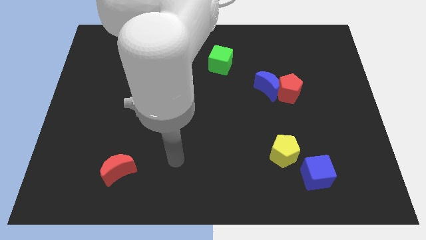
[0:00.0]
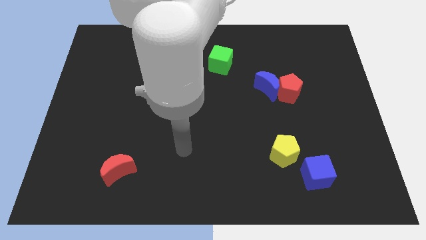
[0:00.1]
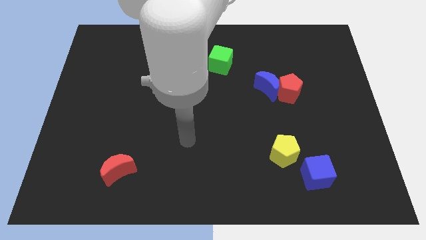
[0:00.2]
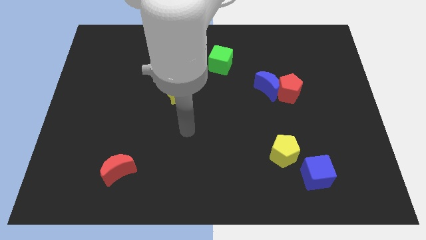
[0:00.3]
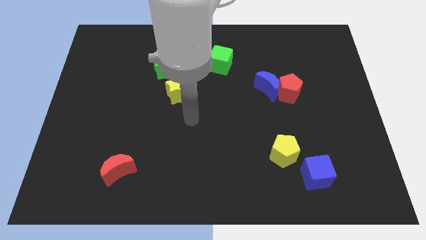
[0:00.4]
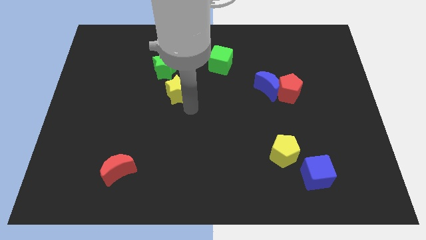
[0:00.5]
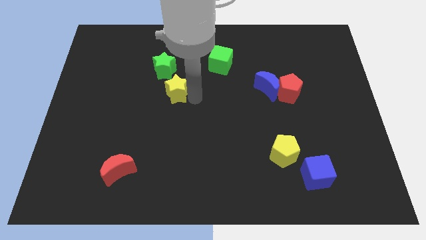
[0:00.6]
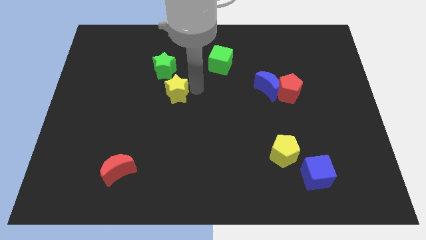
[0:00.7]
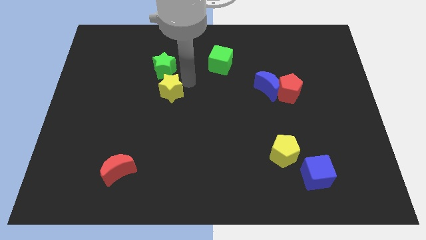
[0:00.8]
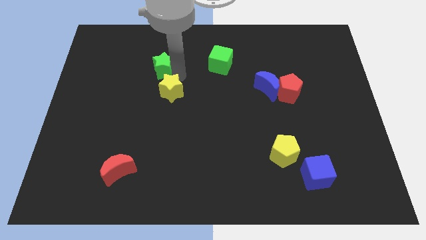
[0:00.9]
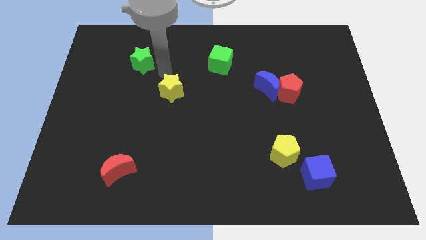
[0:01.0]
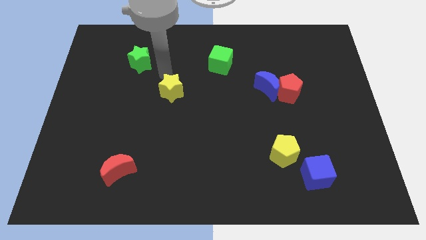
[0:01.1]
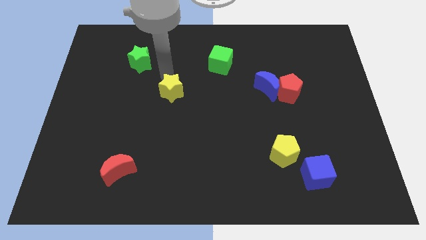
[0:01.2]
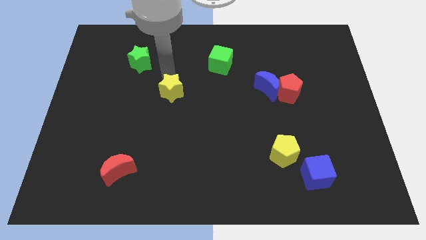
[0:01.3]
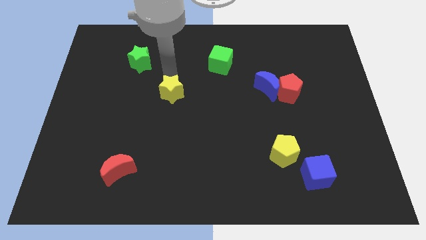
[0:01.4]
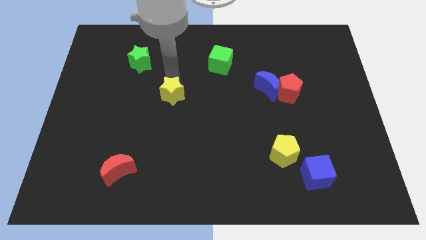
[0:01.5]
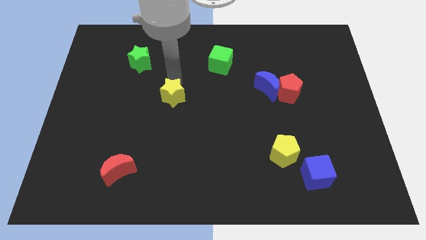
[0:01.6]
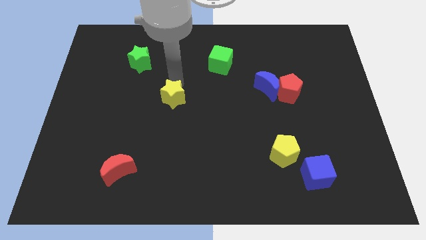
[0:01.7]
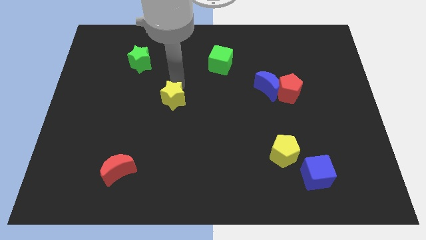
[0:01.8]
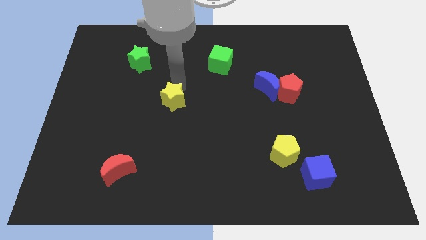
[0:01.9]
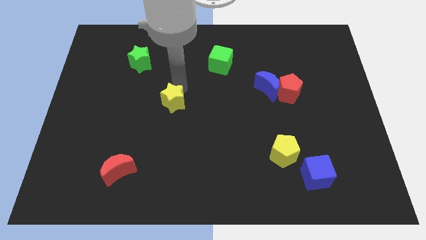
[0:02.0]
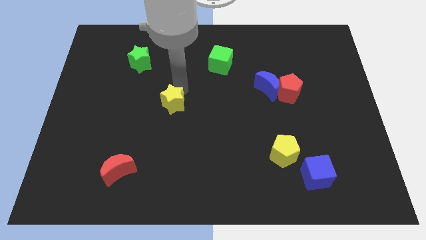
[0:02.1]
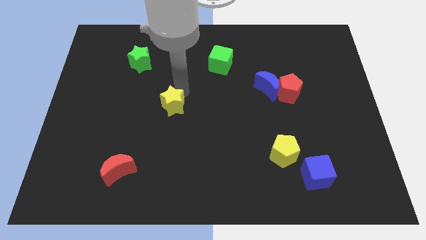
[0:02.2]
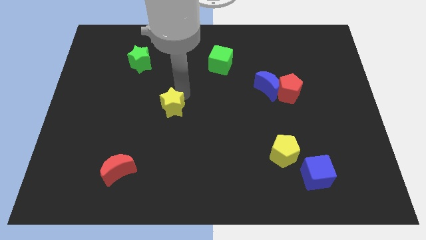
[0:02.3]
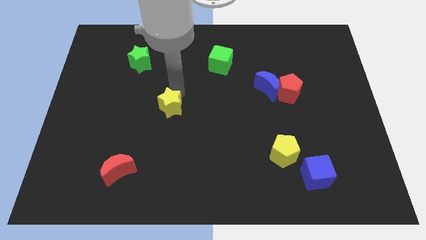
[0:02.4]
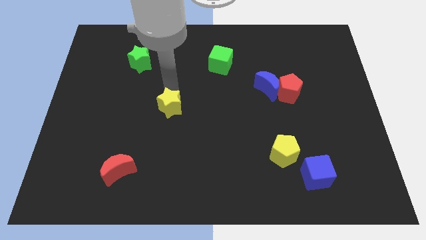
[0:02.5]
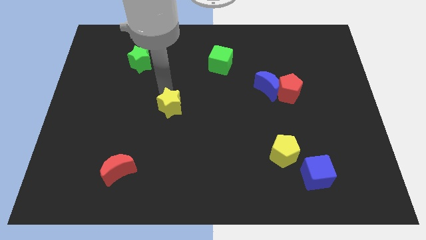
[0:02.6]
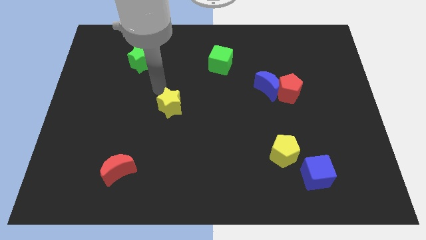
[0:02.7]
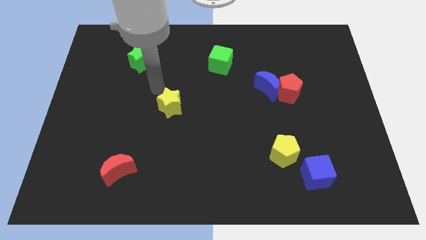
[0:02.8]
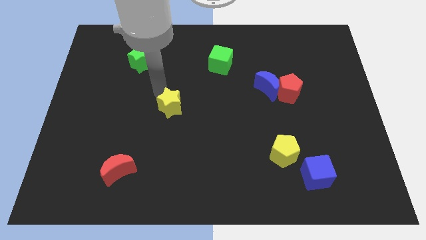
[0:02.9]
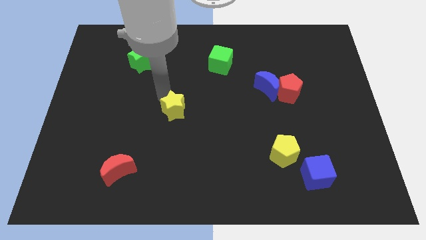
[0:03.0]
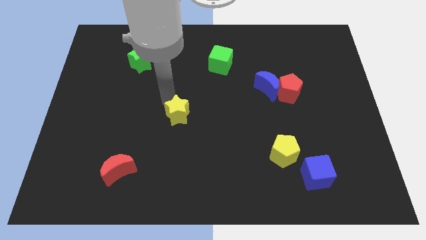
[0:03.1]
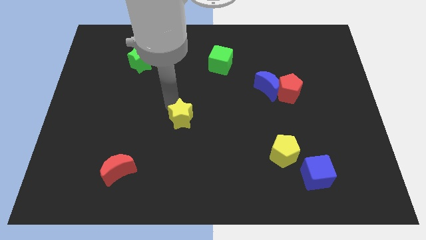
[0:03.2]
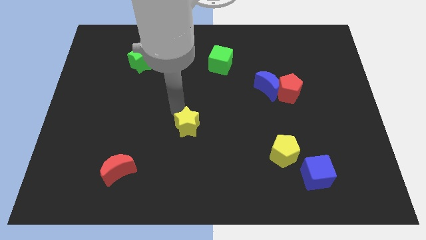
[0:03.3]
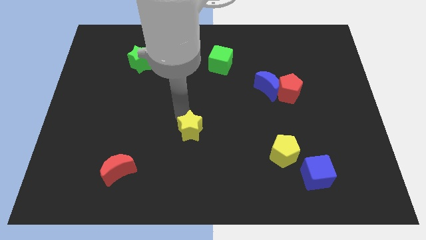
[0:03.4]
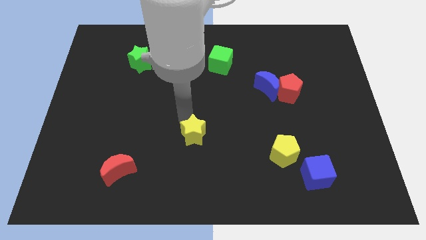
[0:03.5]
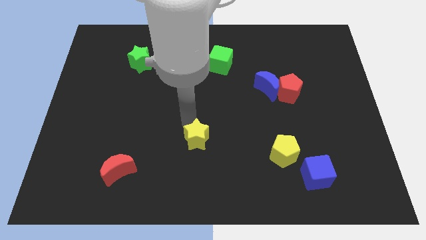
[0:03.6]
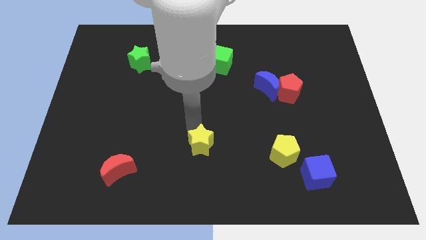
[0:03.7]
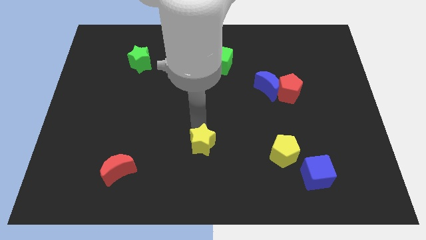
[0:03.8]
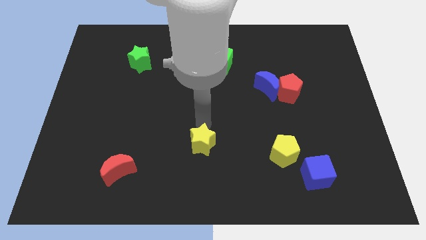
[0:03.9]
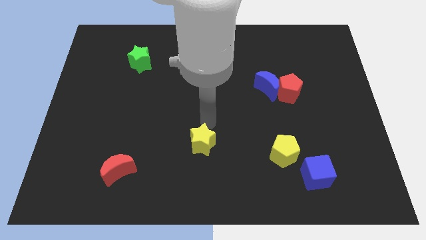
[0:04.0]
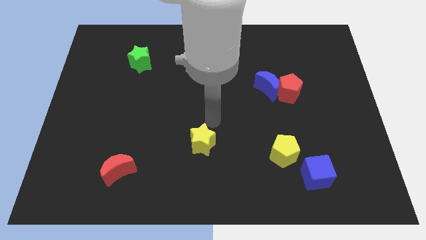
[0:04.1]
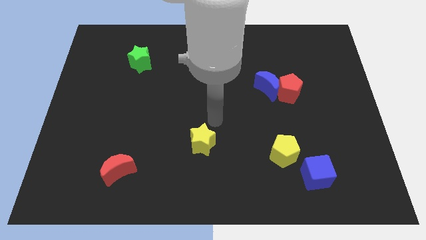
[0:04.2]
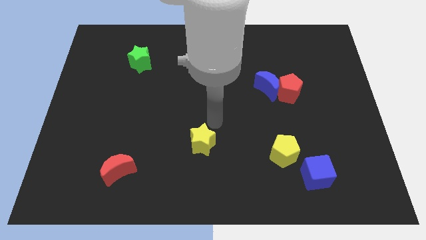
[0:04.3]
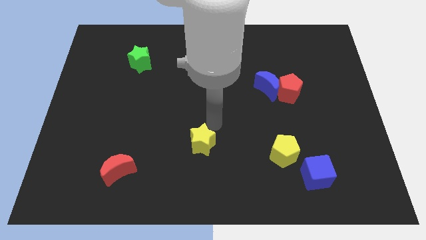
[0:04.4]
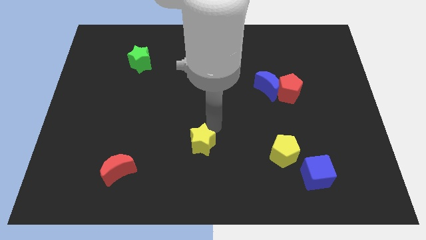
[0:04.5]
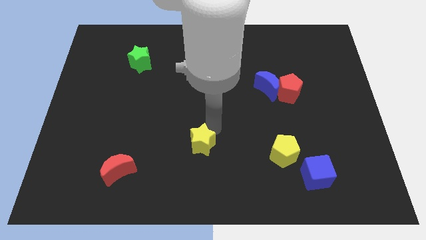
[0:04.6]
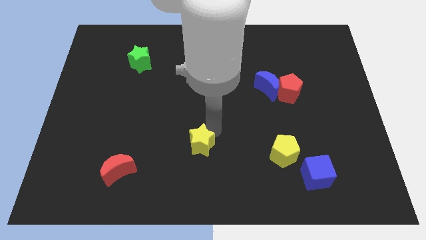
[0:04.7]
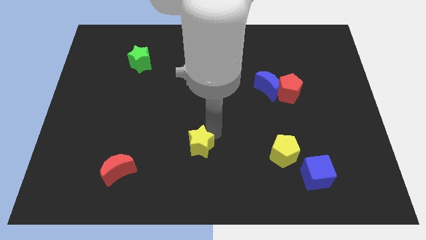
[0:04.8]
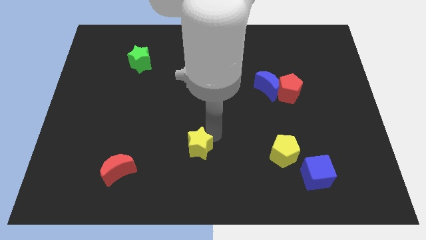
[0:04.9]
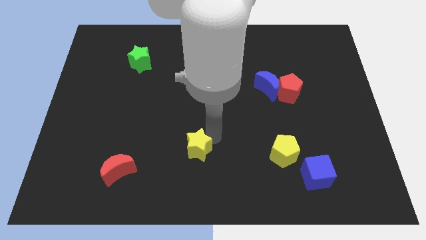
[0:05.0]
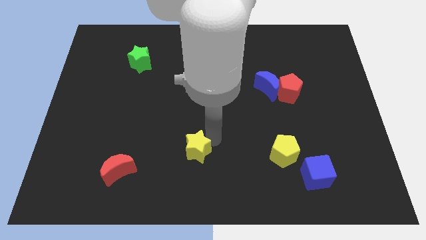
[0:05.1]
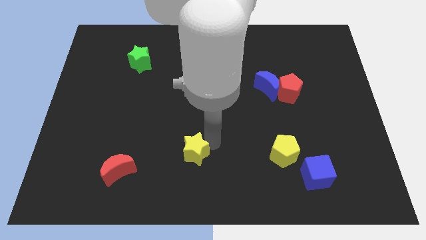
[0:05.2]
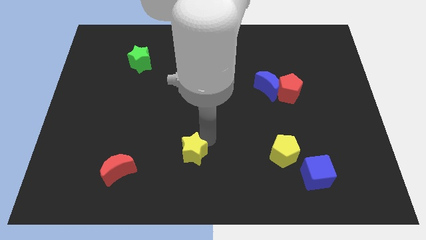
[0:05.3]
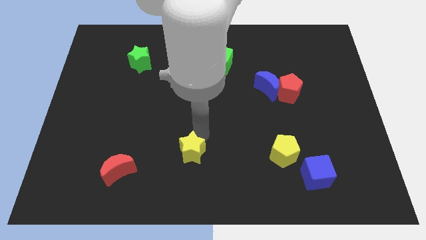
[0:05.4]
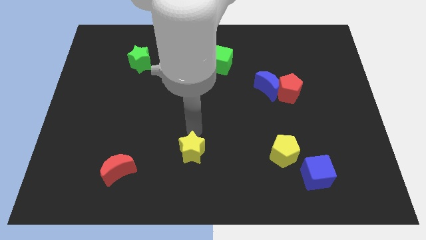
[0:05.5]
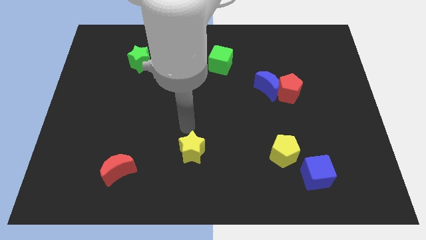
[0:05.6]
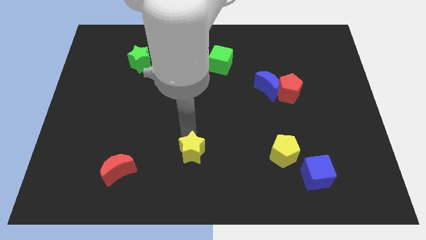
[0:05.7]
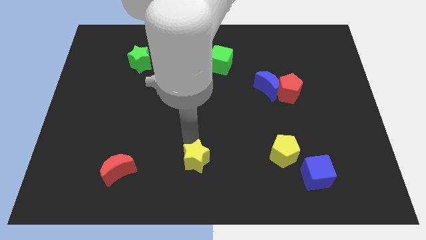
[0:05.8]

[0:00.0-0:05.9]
put the yellow star to the bottom side

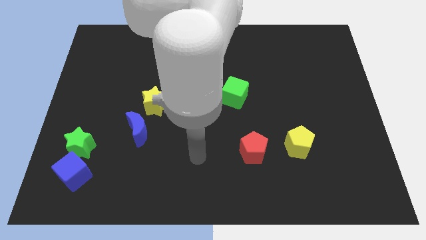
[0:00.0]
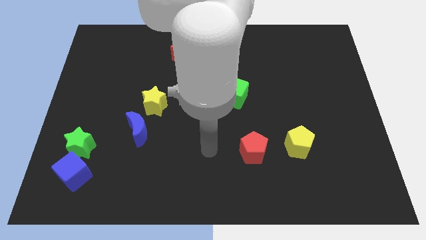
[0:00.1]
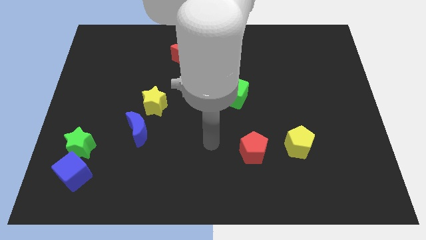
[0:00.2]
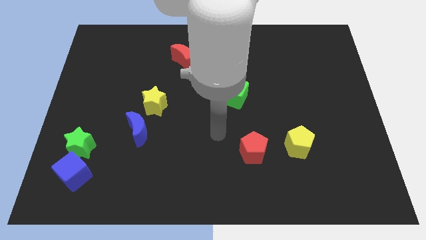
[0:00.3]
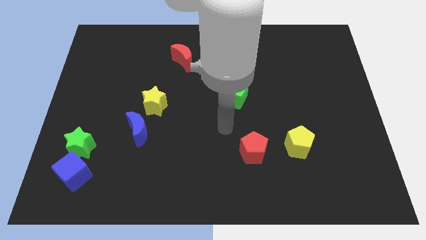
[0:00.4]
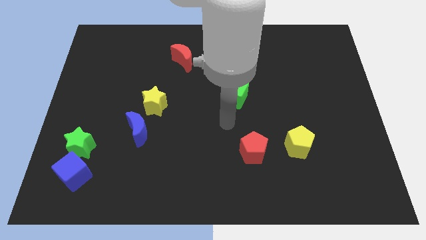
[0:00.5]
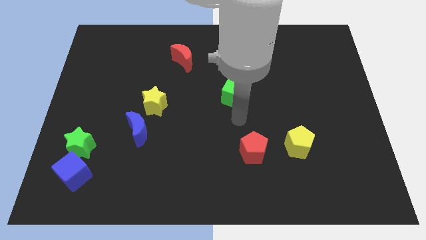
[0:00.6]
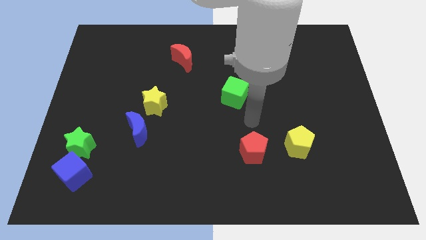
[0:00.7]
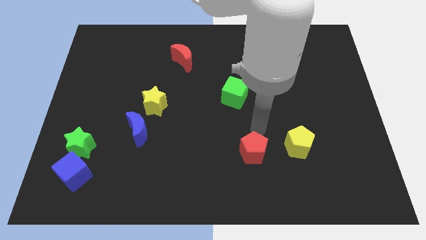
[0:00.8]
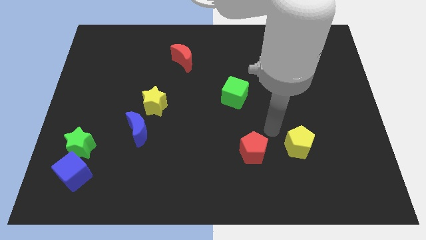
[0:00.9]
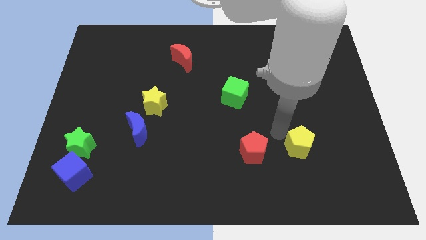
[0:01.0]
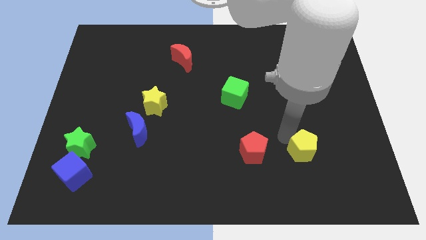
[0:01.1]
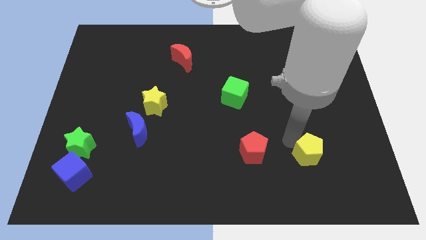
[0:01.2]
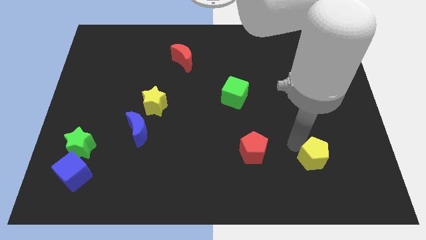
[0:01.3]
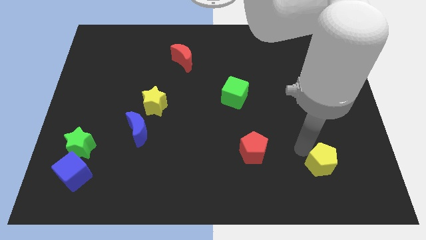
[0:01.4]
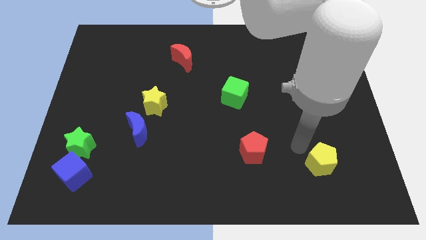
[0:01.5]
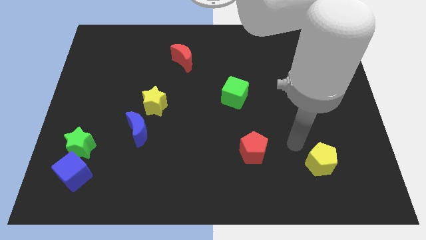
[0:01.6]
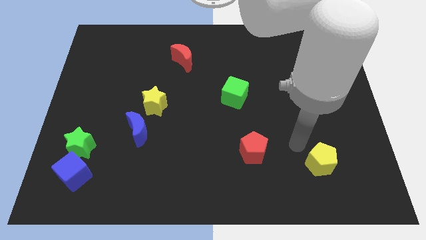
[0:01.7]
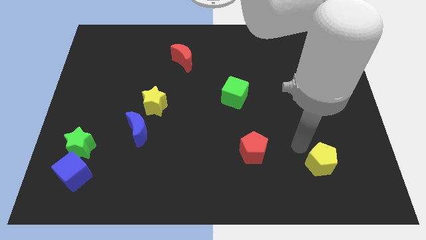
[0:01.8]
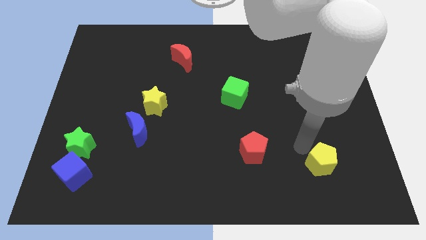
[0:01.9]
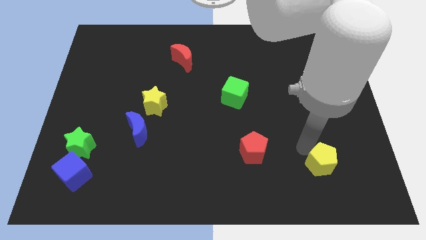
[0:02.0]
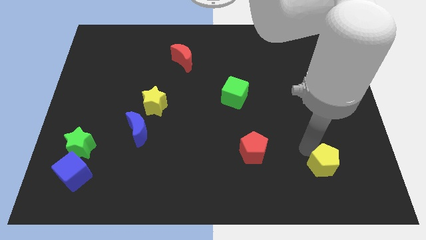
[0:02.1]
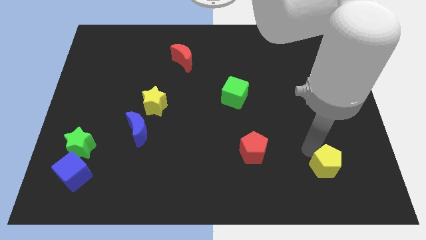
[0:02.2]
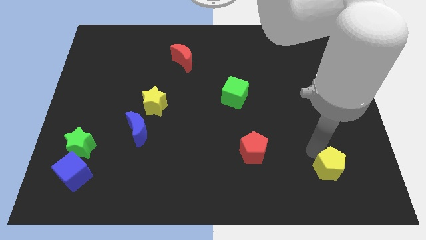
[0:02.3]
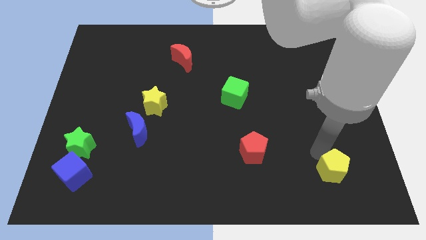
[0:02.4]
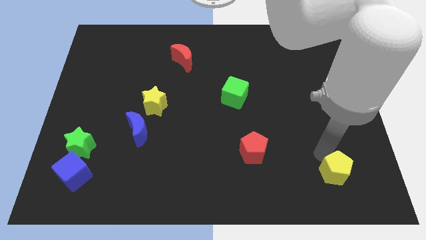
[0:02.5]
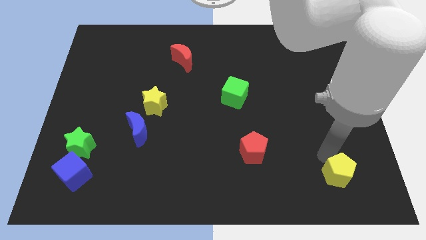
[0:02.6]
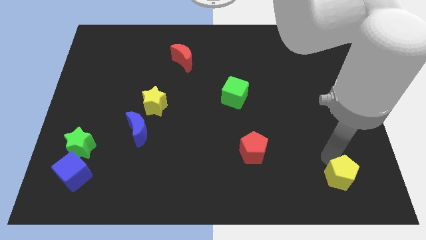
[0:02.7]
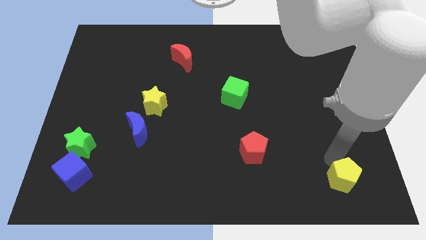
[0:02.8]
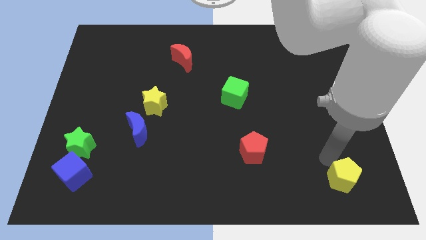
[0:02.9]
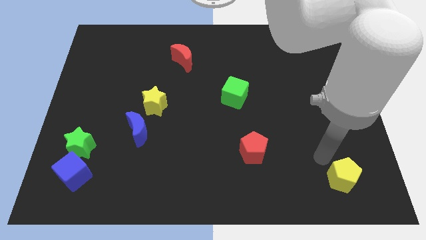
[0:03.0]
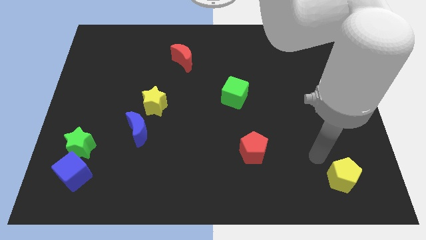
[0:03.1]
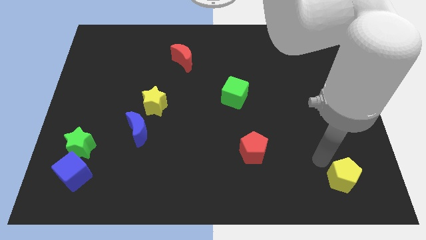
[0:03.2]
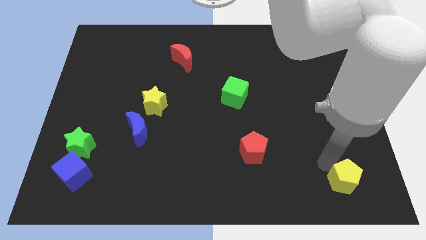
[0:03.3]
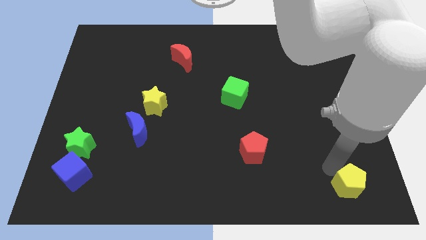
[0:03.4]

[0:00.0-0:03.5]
move the yellow pentagon to the bottom right of the board
